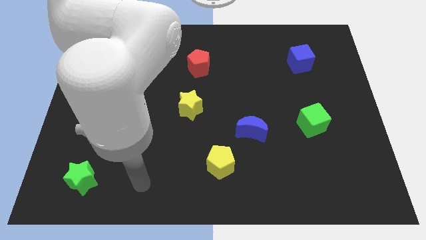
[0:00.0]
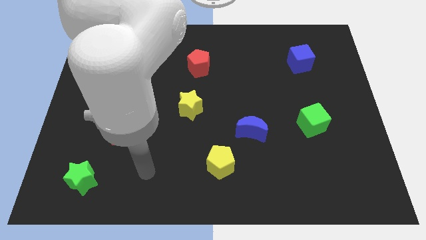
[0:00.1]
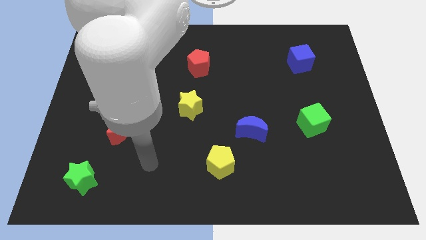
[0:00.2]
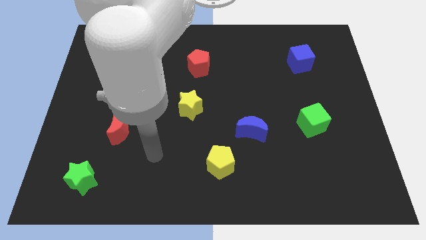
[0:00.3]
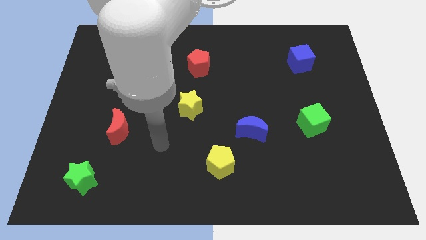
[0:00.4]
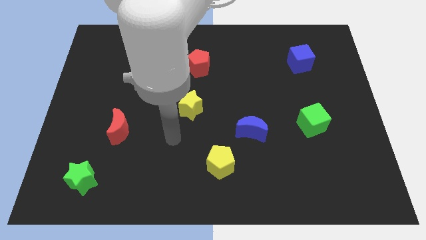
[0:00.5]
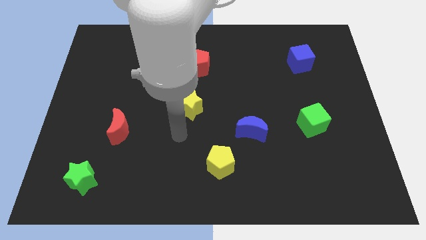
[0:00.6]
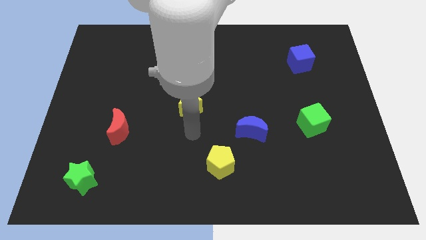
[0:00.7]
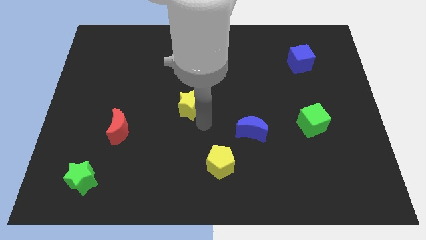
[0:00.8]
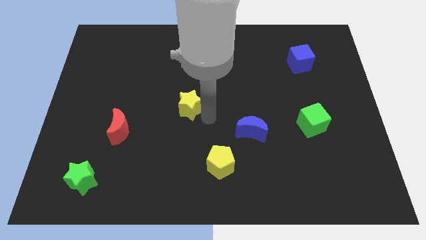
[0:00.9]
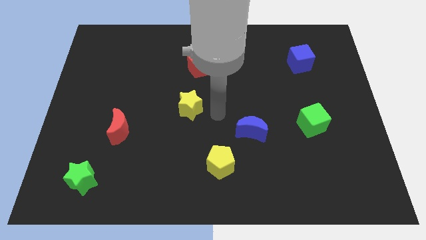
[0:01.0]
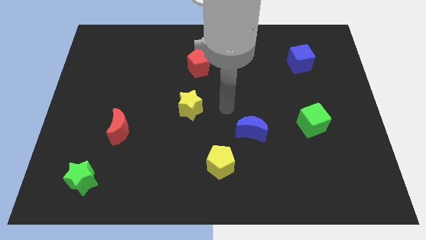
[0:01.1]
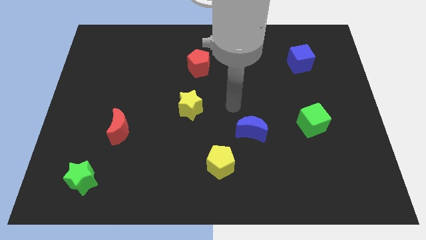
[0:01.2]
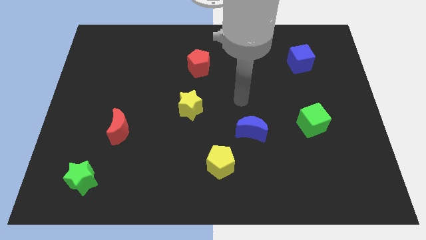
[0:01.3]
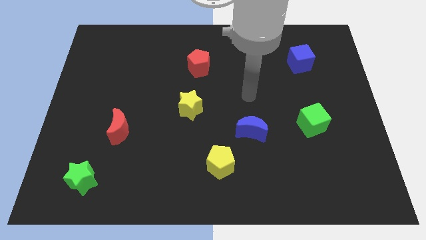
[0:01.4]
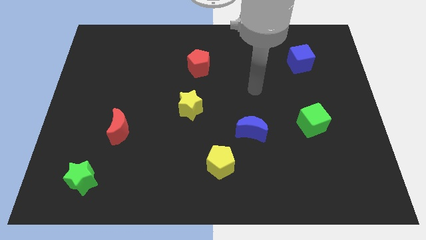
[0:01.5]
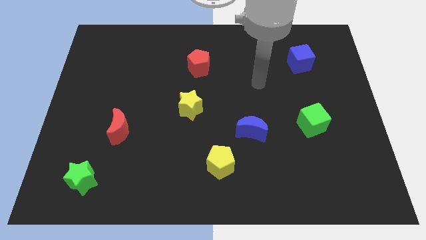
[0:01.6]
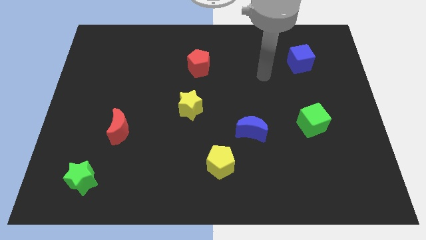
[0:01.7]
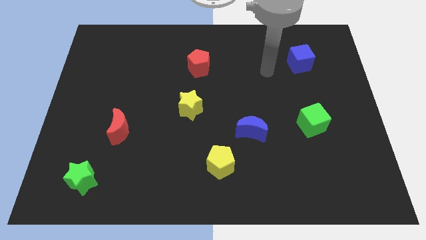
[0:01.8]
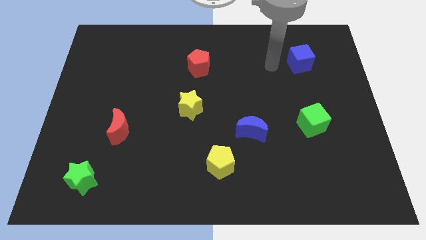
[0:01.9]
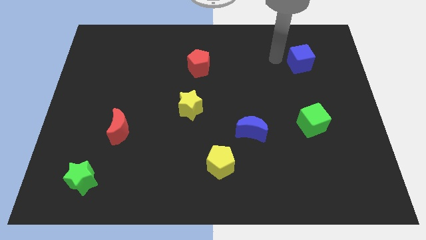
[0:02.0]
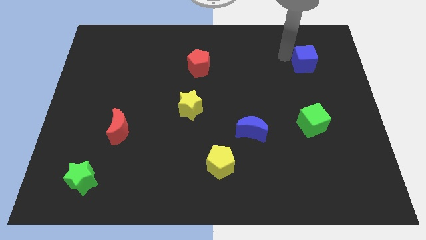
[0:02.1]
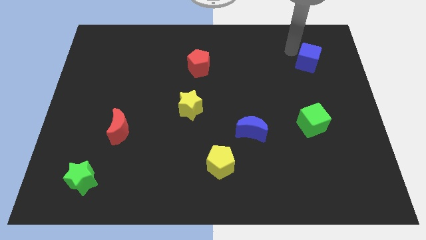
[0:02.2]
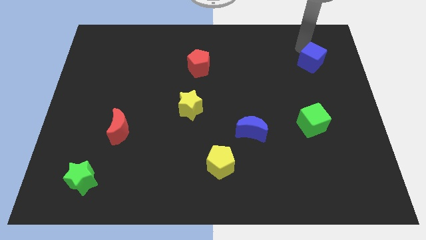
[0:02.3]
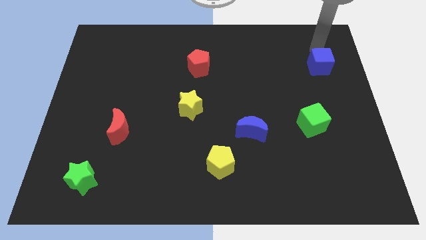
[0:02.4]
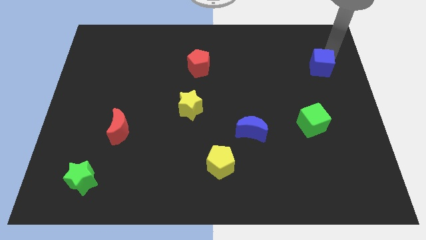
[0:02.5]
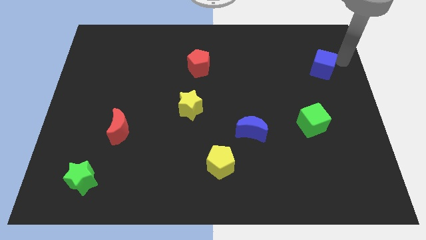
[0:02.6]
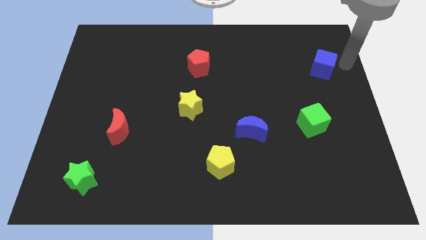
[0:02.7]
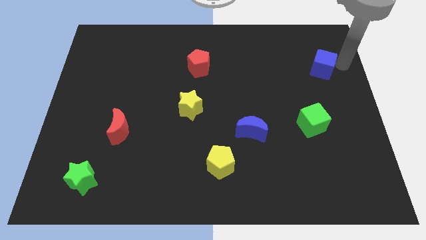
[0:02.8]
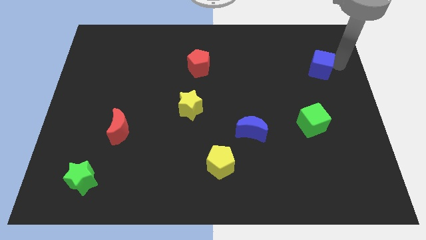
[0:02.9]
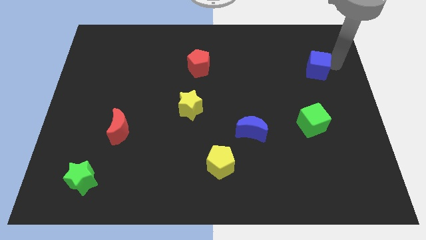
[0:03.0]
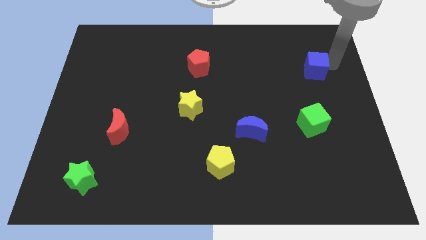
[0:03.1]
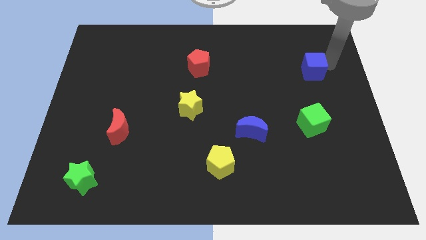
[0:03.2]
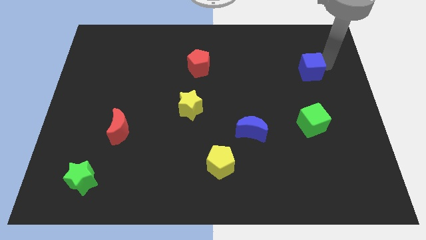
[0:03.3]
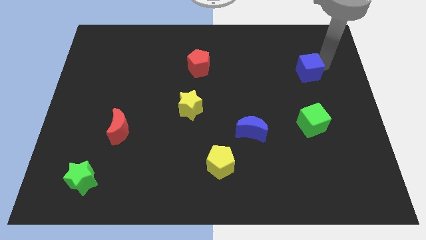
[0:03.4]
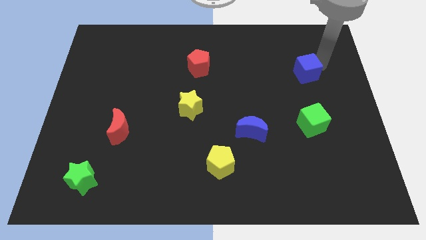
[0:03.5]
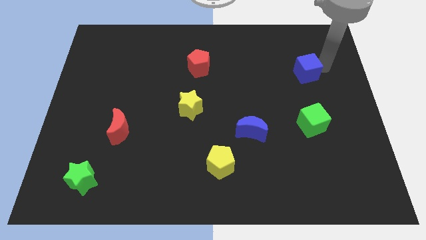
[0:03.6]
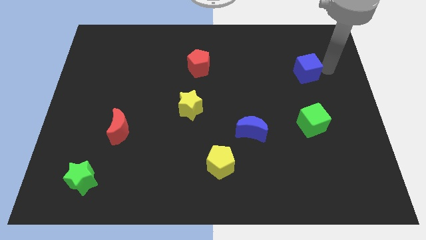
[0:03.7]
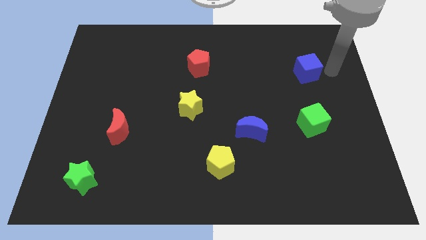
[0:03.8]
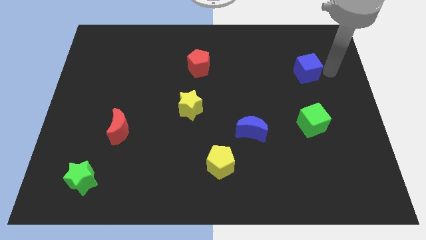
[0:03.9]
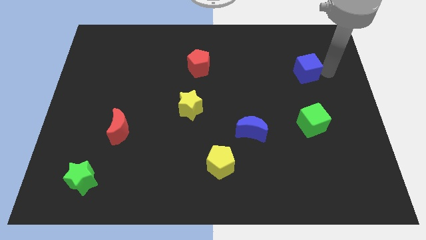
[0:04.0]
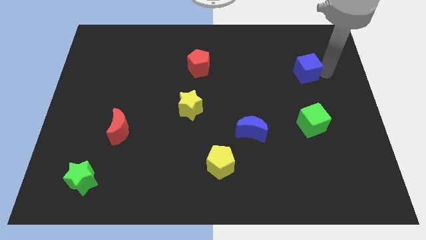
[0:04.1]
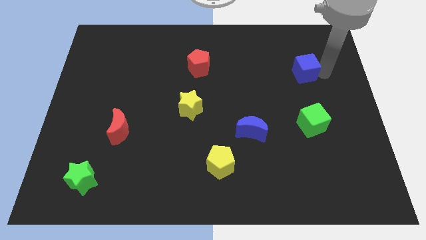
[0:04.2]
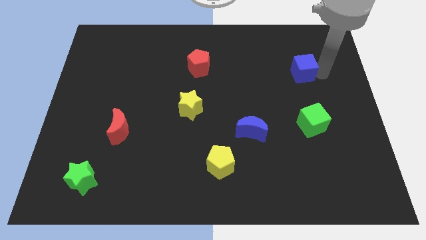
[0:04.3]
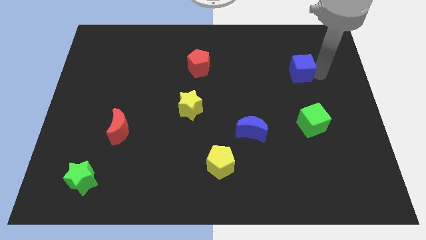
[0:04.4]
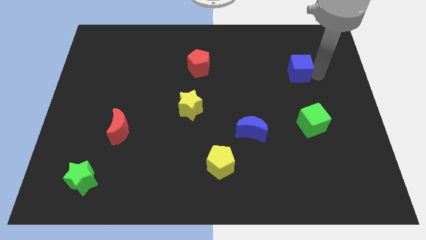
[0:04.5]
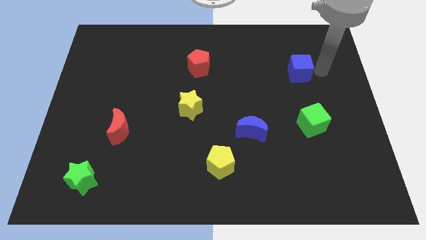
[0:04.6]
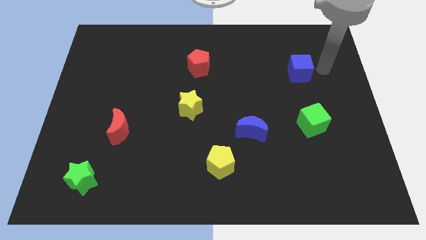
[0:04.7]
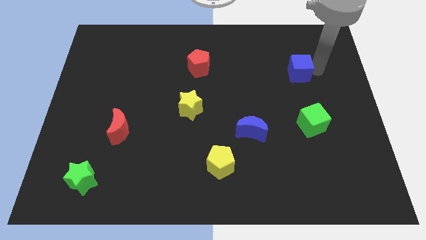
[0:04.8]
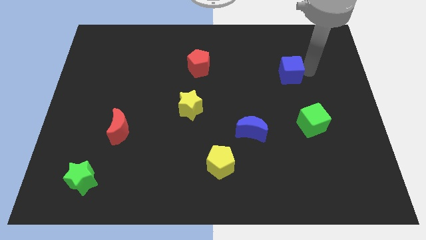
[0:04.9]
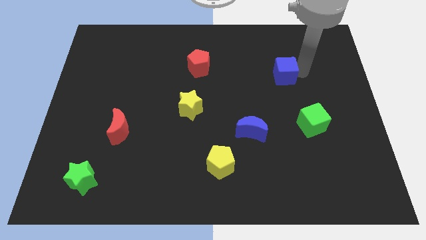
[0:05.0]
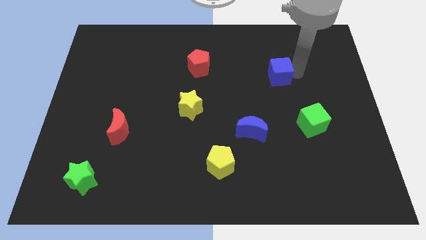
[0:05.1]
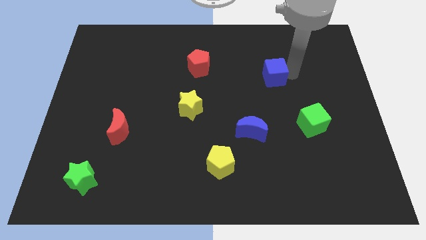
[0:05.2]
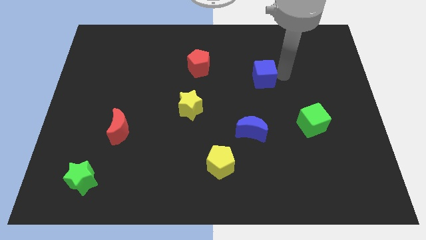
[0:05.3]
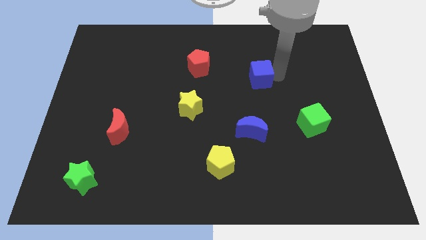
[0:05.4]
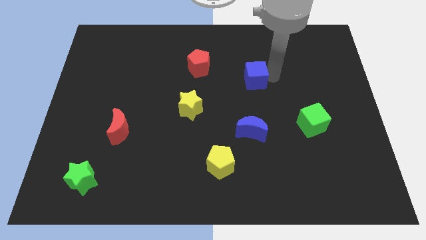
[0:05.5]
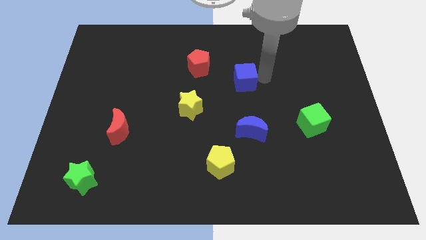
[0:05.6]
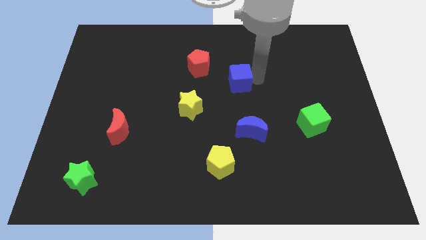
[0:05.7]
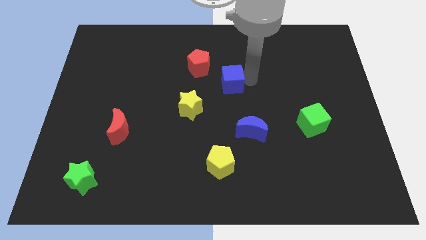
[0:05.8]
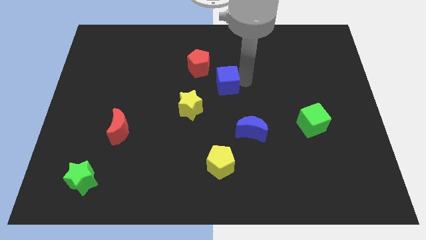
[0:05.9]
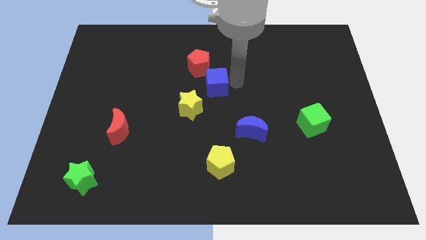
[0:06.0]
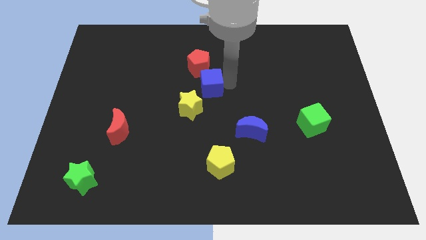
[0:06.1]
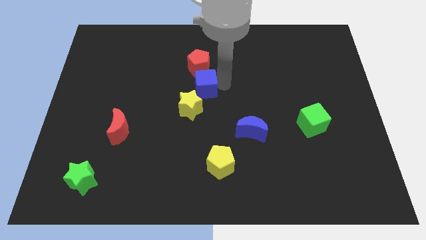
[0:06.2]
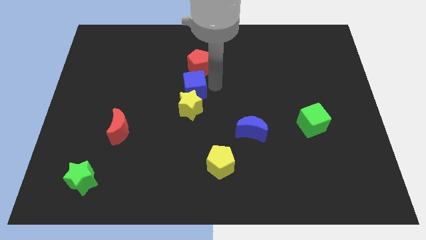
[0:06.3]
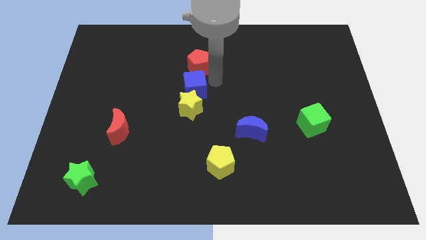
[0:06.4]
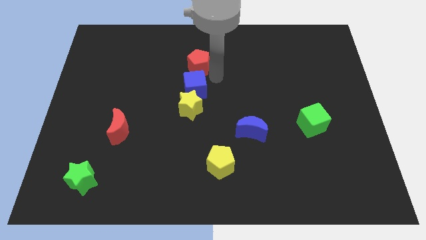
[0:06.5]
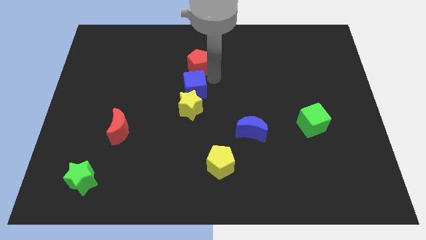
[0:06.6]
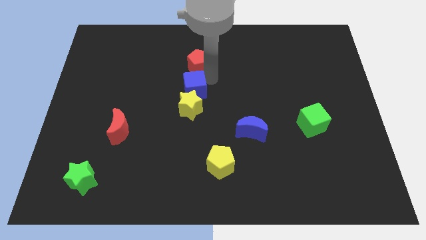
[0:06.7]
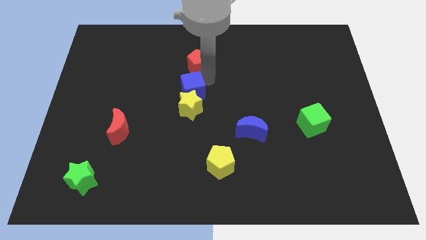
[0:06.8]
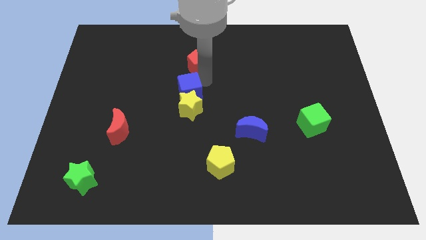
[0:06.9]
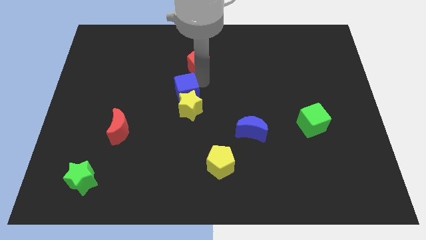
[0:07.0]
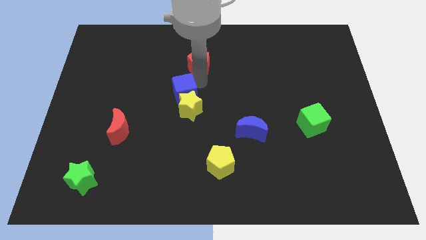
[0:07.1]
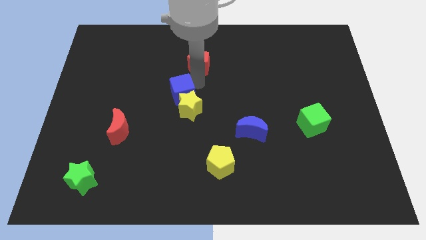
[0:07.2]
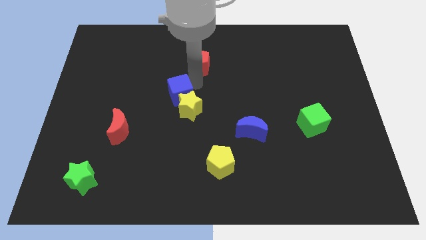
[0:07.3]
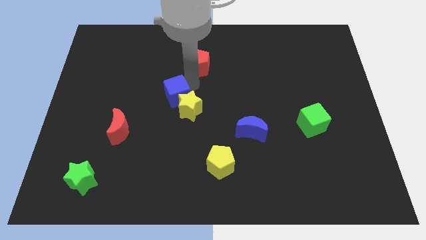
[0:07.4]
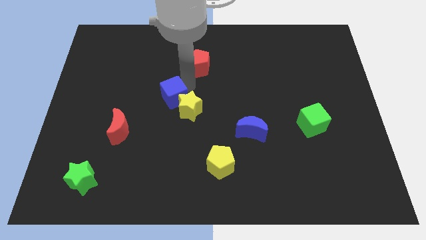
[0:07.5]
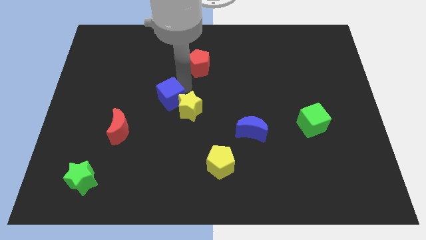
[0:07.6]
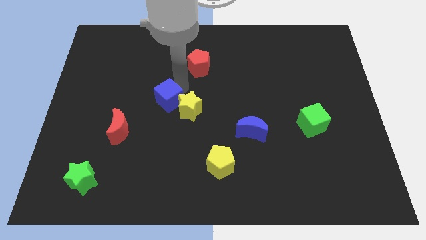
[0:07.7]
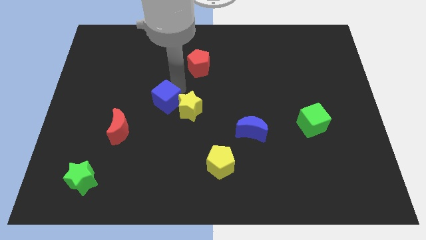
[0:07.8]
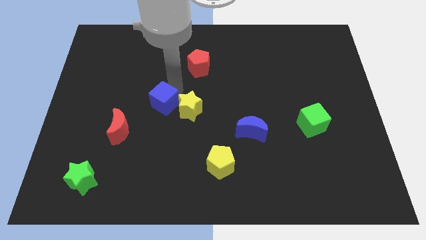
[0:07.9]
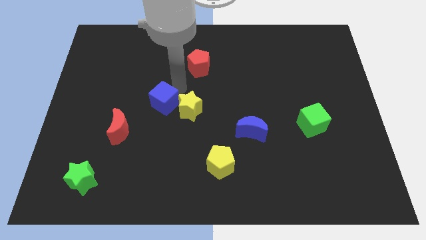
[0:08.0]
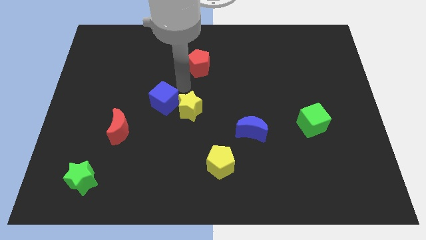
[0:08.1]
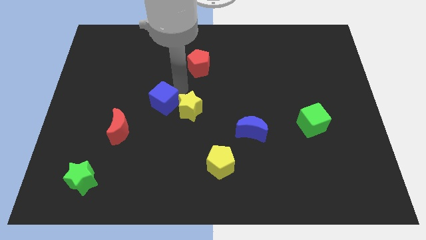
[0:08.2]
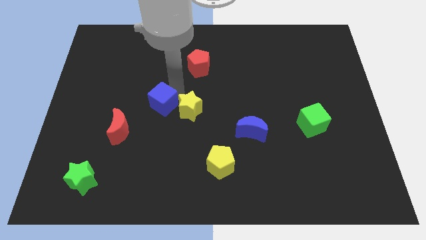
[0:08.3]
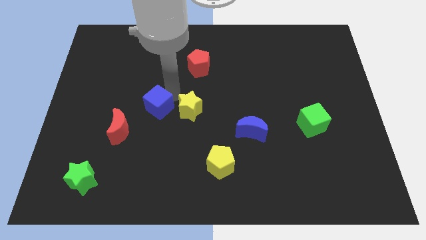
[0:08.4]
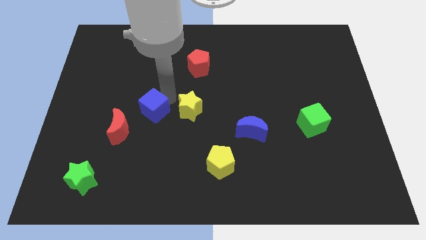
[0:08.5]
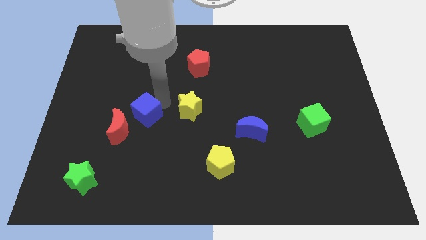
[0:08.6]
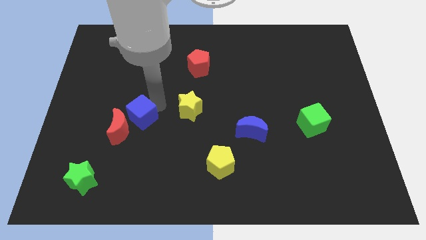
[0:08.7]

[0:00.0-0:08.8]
move the blue cube close to the red moon
